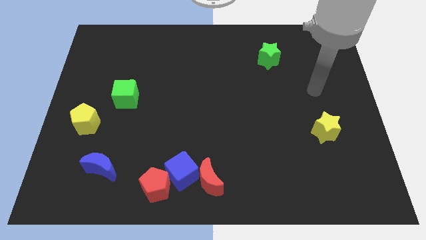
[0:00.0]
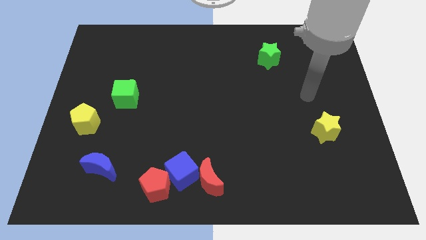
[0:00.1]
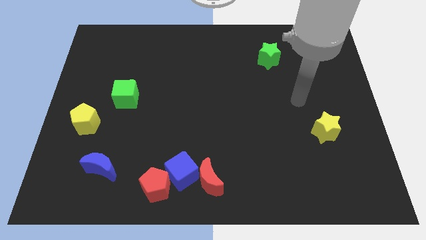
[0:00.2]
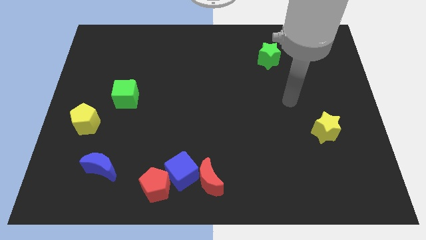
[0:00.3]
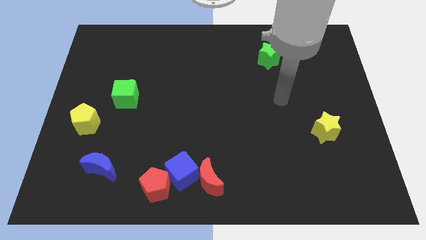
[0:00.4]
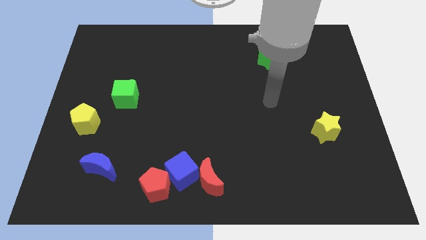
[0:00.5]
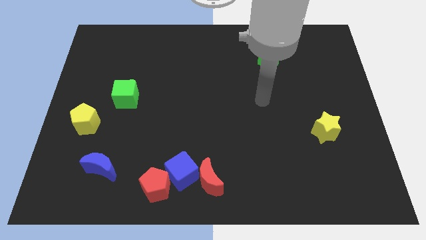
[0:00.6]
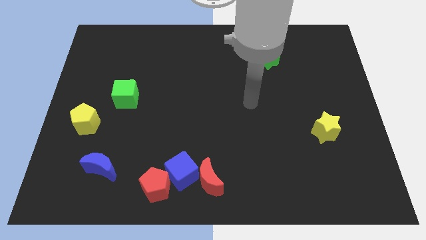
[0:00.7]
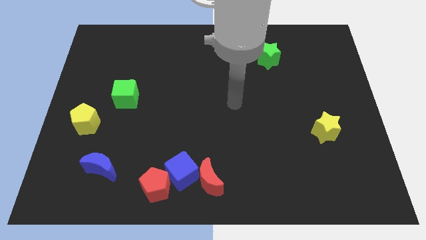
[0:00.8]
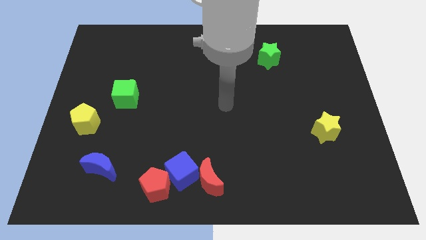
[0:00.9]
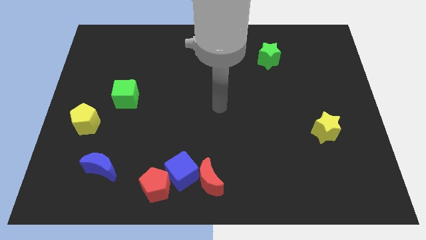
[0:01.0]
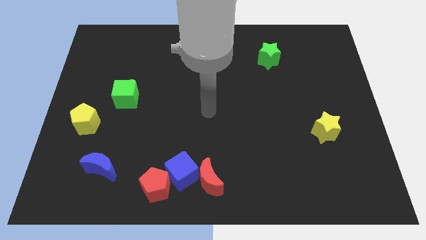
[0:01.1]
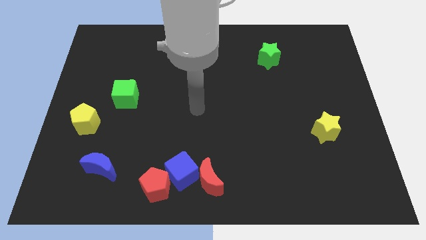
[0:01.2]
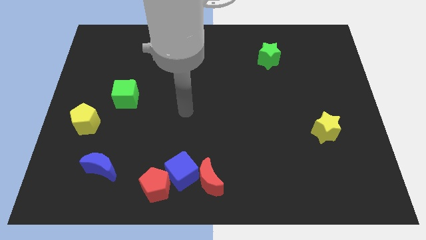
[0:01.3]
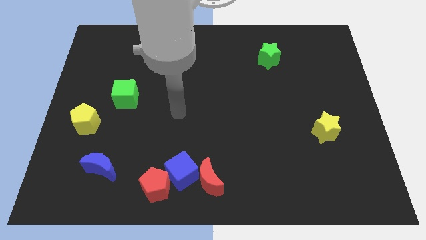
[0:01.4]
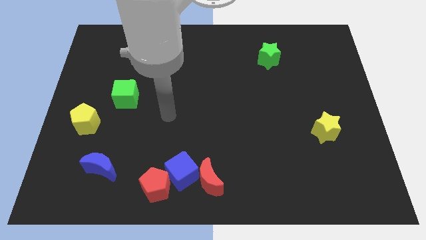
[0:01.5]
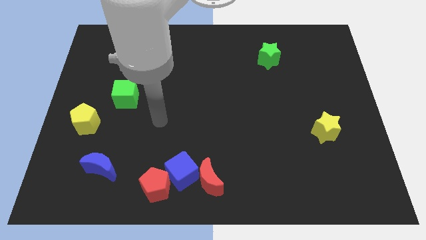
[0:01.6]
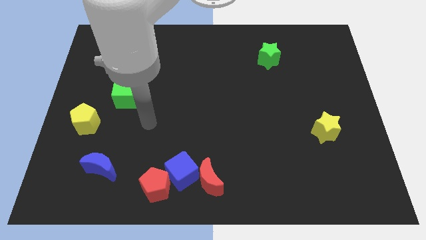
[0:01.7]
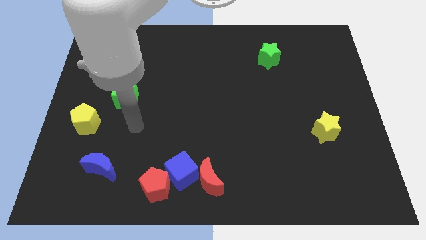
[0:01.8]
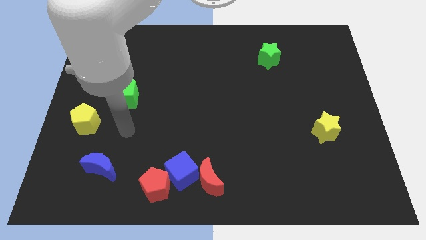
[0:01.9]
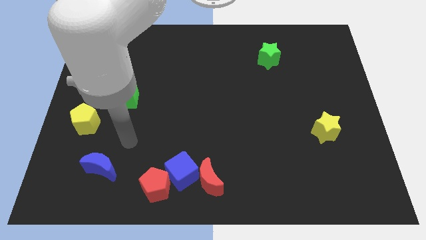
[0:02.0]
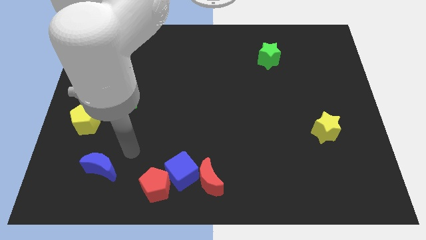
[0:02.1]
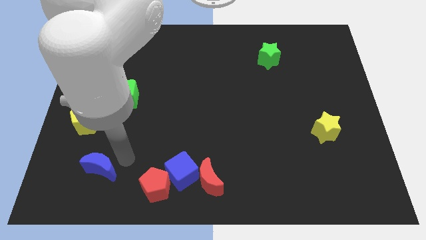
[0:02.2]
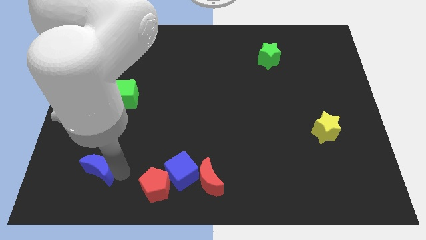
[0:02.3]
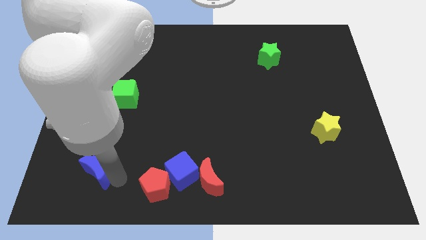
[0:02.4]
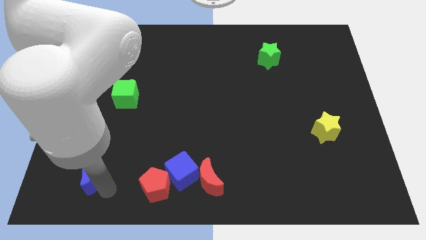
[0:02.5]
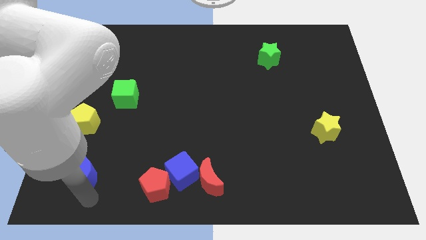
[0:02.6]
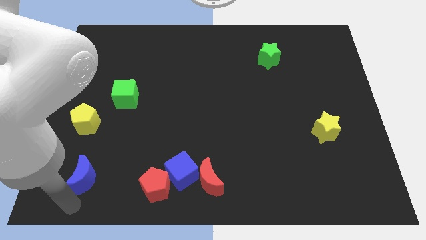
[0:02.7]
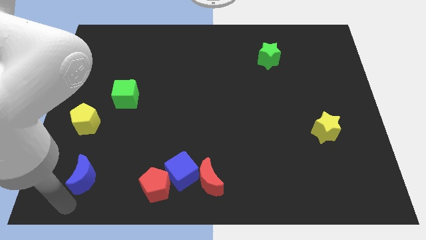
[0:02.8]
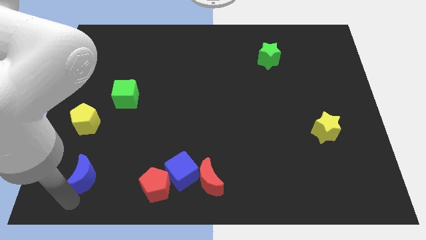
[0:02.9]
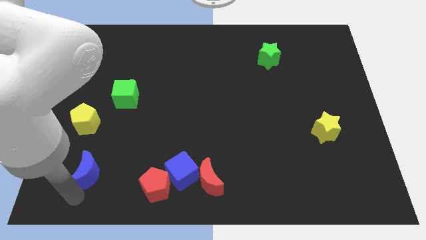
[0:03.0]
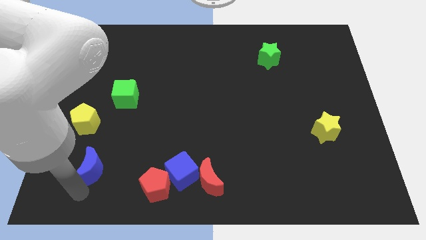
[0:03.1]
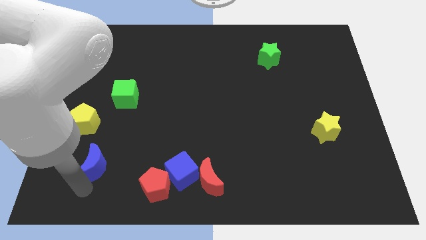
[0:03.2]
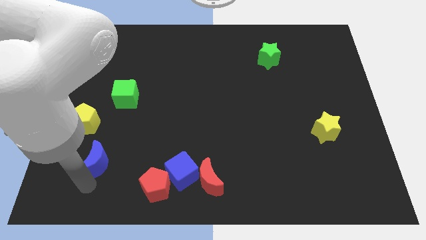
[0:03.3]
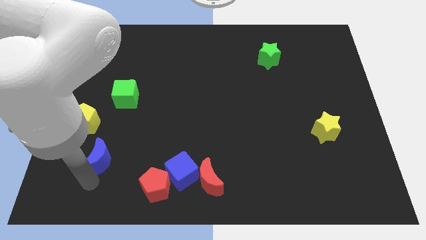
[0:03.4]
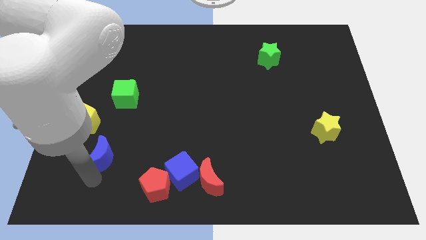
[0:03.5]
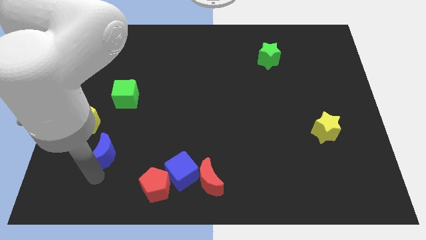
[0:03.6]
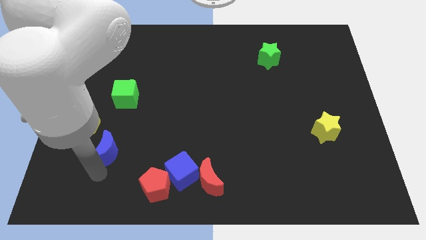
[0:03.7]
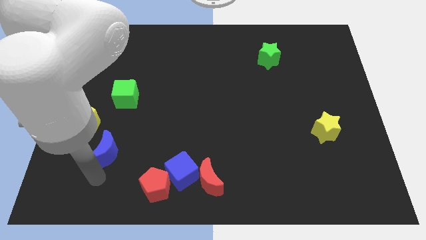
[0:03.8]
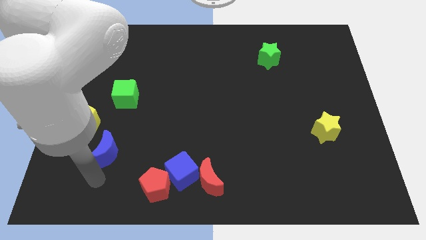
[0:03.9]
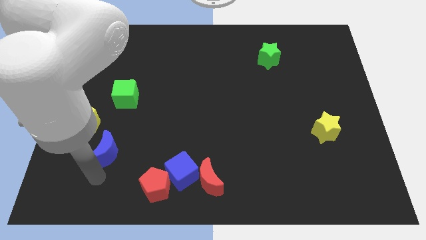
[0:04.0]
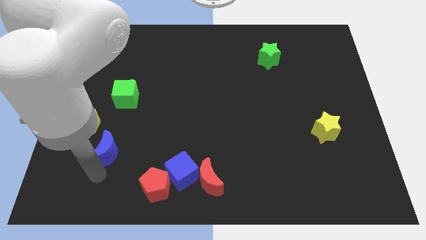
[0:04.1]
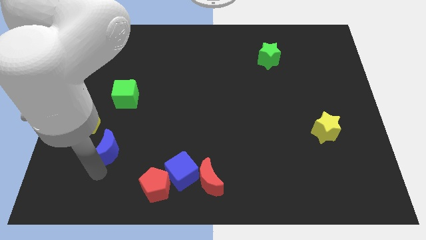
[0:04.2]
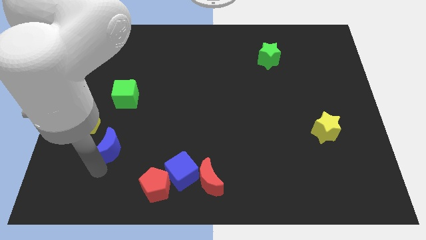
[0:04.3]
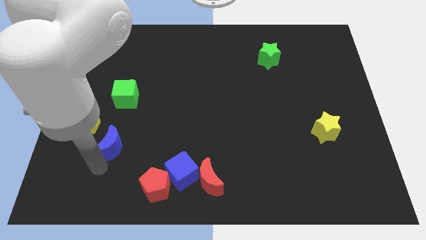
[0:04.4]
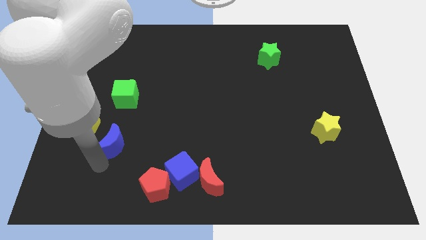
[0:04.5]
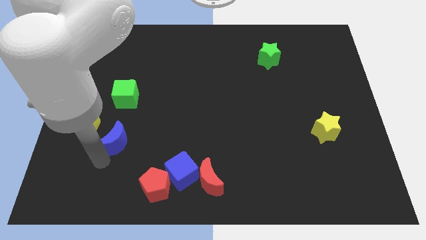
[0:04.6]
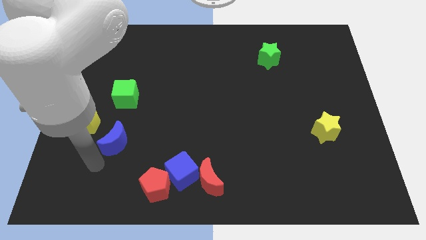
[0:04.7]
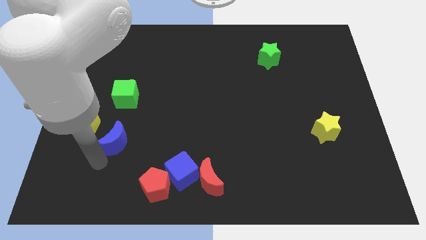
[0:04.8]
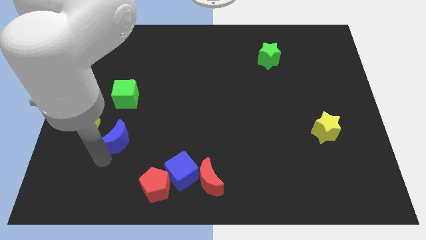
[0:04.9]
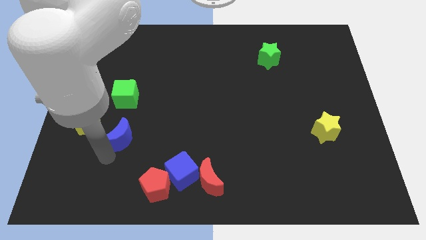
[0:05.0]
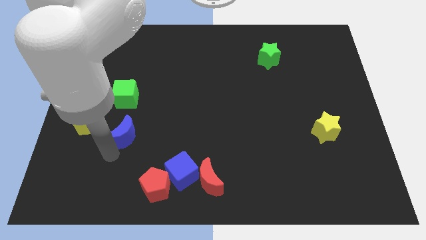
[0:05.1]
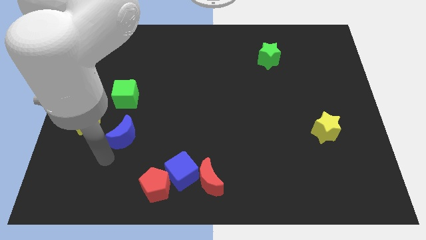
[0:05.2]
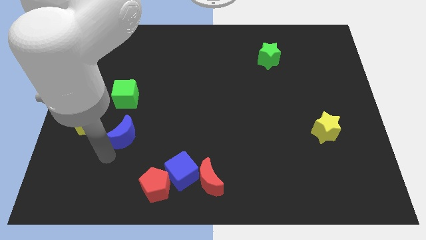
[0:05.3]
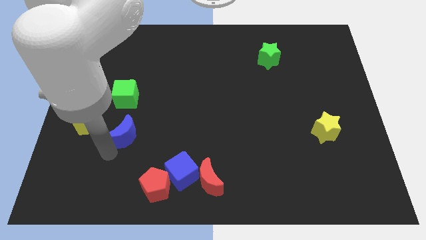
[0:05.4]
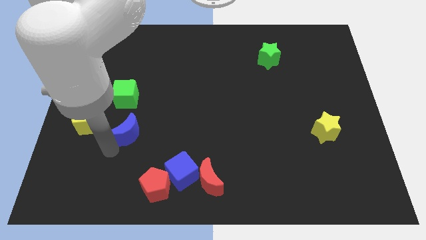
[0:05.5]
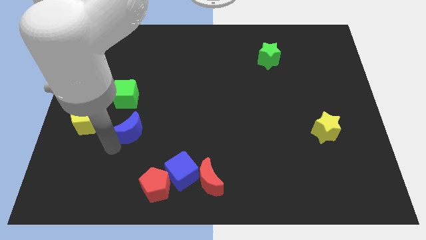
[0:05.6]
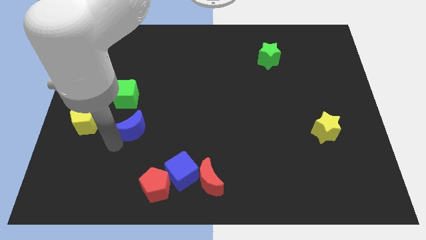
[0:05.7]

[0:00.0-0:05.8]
put the blue moon to the bottom right side of the green cube

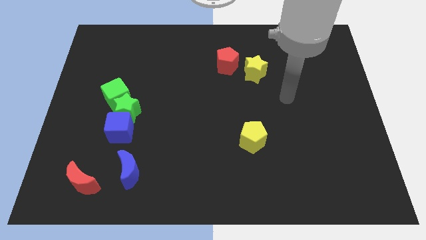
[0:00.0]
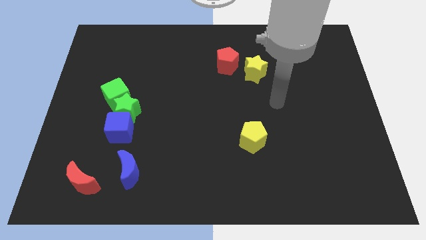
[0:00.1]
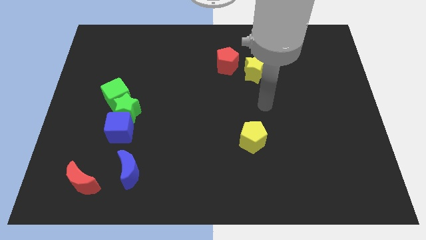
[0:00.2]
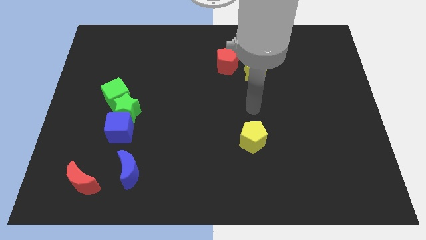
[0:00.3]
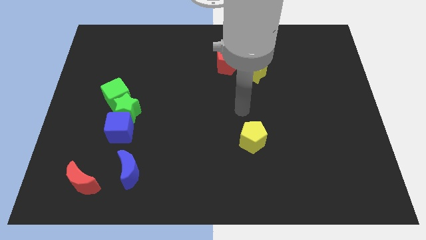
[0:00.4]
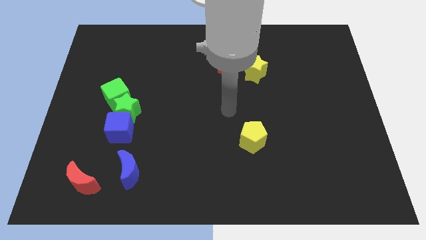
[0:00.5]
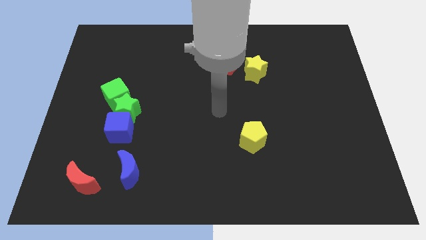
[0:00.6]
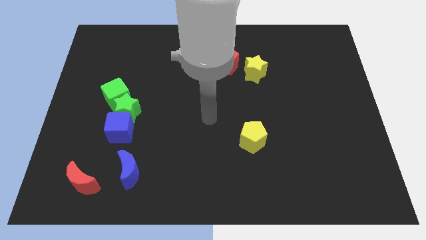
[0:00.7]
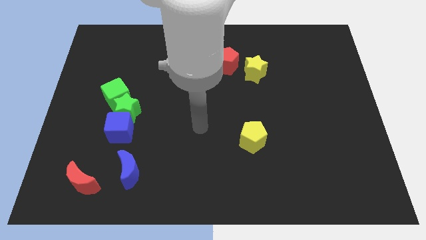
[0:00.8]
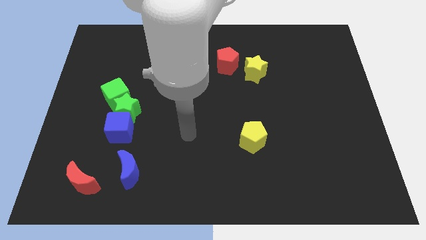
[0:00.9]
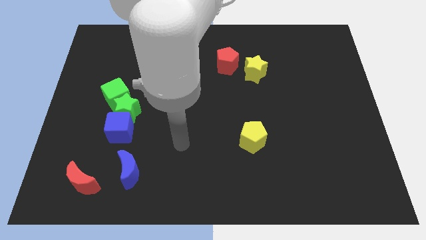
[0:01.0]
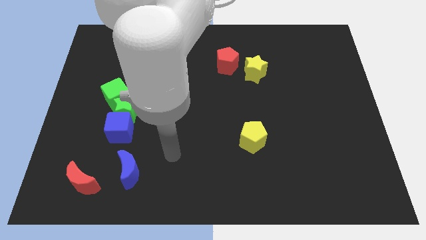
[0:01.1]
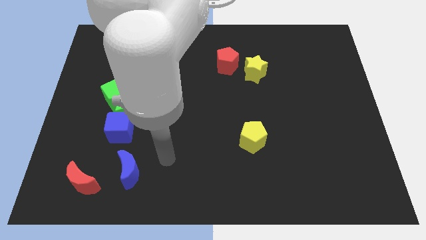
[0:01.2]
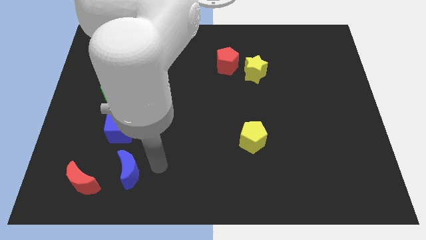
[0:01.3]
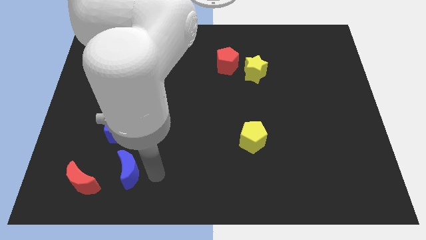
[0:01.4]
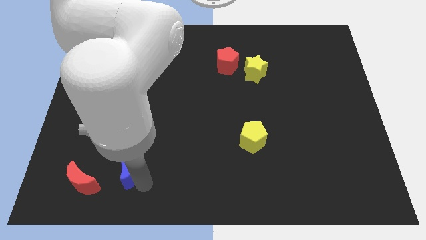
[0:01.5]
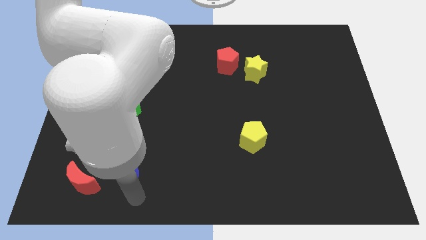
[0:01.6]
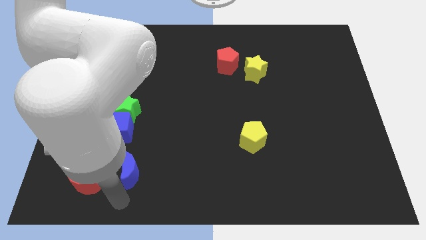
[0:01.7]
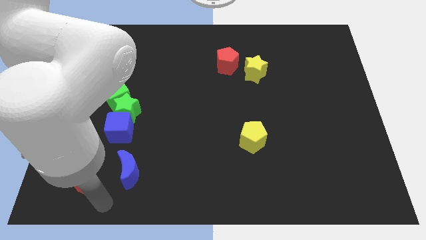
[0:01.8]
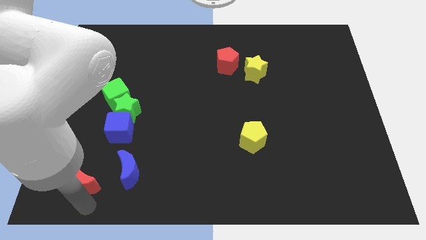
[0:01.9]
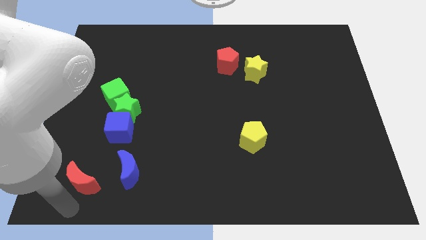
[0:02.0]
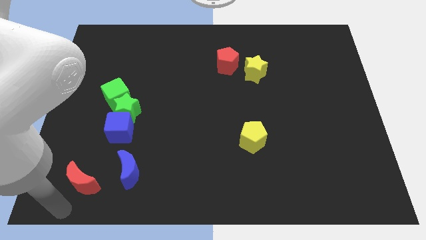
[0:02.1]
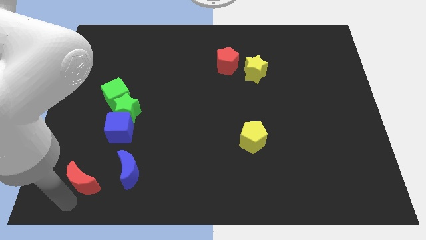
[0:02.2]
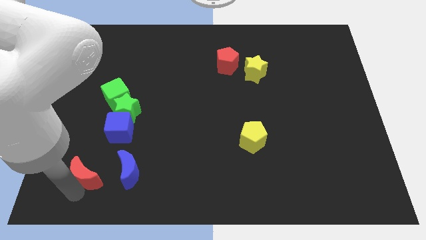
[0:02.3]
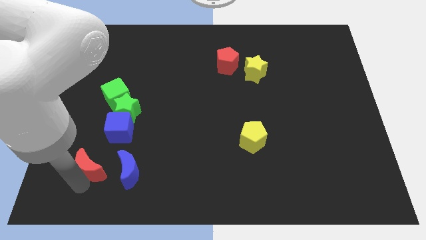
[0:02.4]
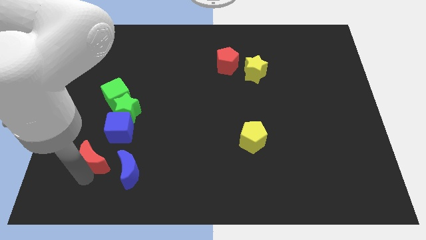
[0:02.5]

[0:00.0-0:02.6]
move the red moon to the top left side of the blue moon
